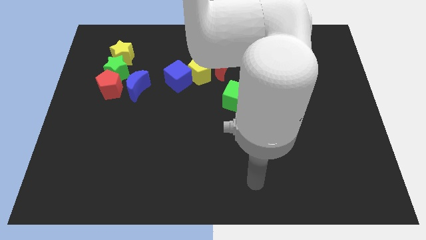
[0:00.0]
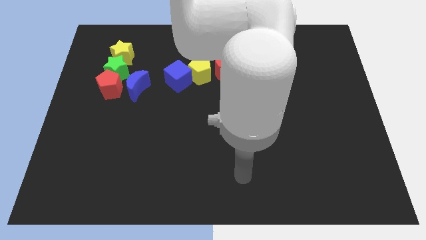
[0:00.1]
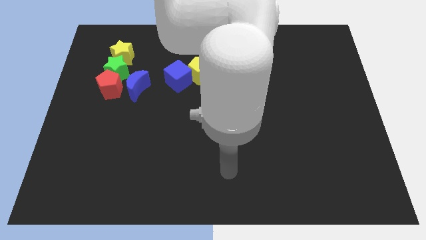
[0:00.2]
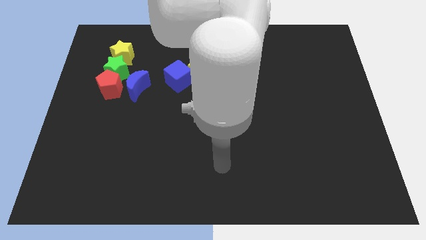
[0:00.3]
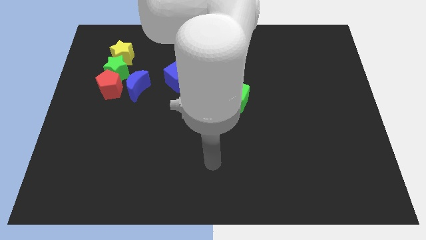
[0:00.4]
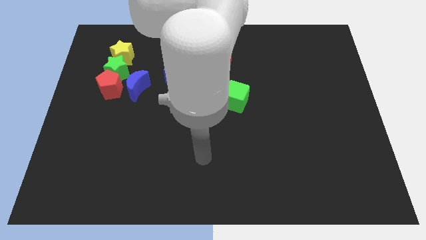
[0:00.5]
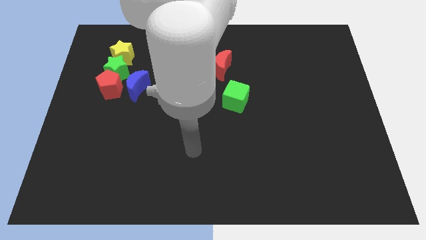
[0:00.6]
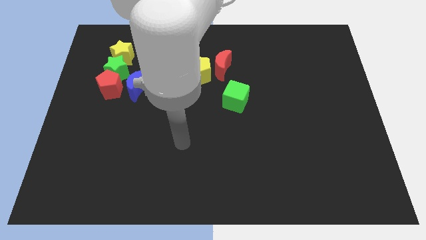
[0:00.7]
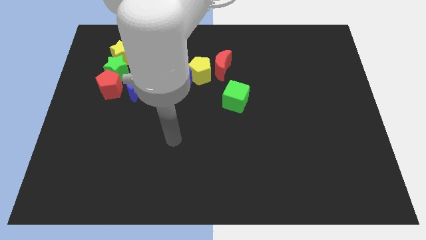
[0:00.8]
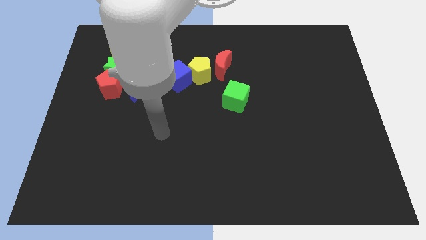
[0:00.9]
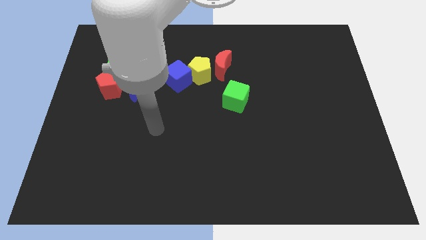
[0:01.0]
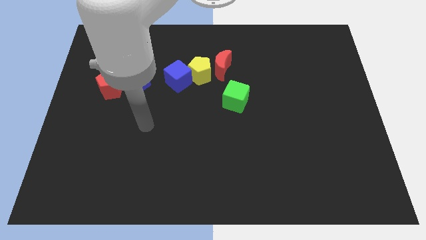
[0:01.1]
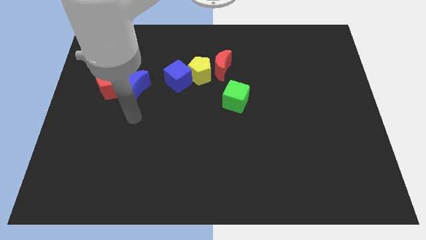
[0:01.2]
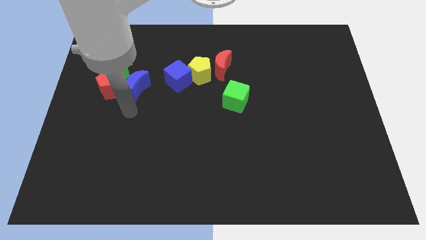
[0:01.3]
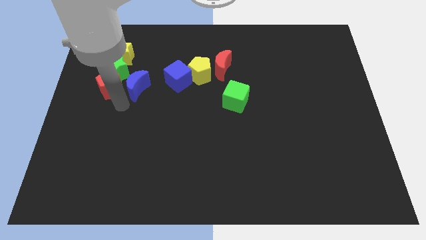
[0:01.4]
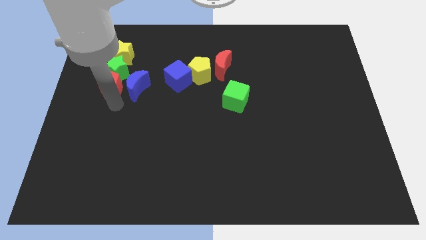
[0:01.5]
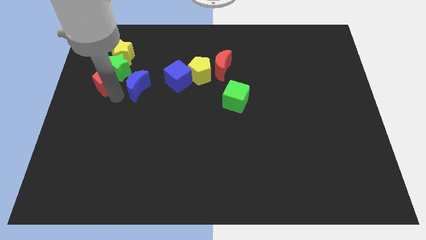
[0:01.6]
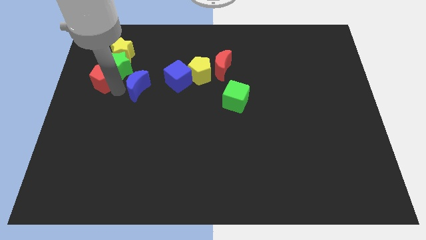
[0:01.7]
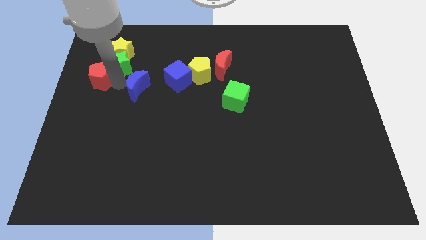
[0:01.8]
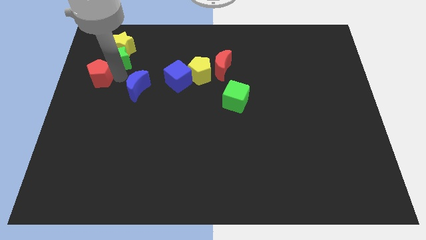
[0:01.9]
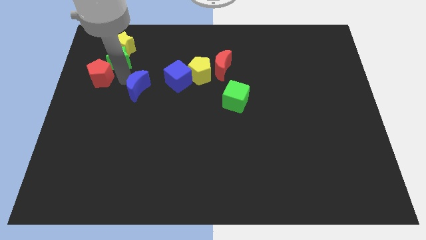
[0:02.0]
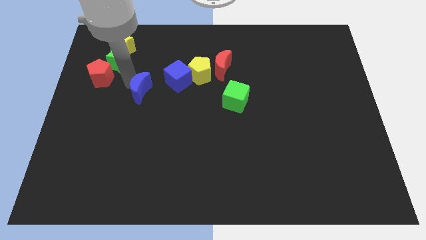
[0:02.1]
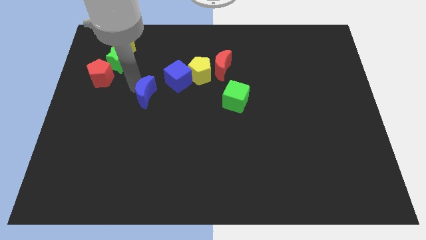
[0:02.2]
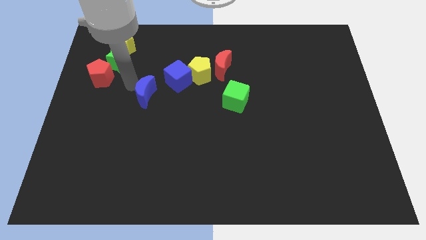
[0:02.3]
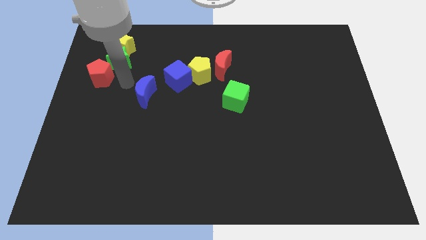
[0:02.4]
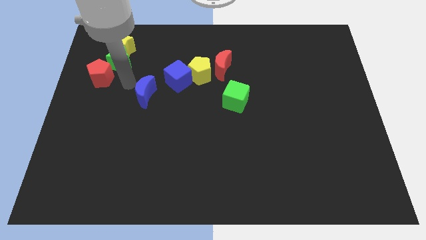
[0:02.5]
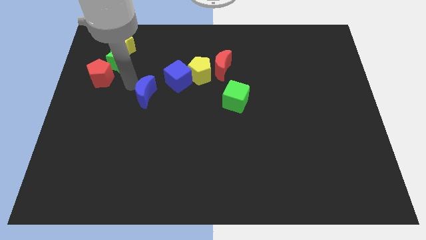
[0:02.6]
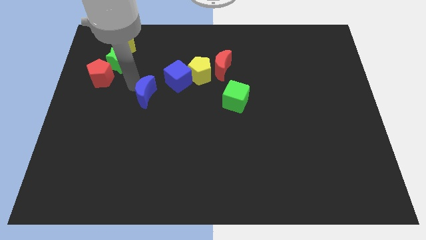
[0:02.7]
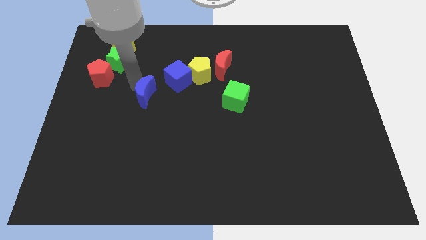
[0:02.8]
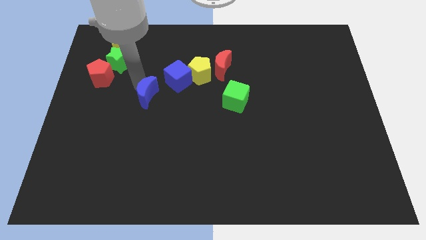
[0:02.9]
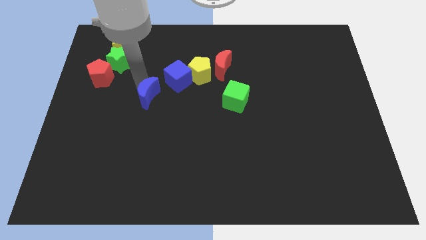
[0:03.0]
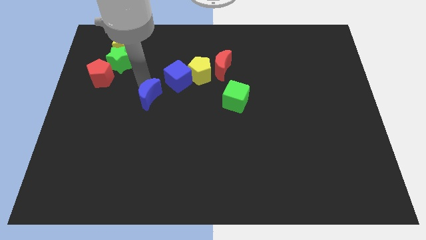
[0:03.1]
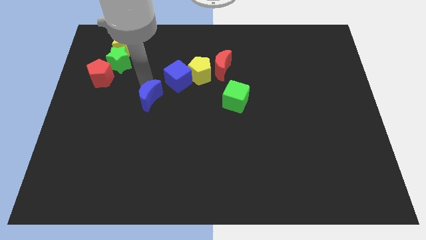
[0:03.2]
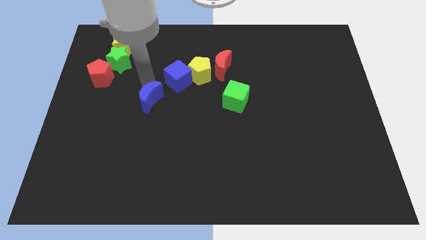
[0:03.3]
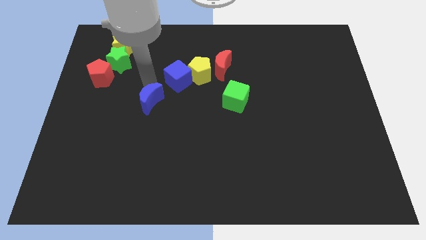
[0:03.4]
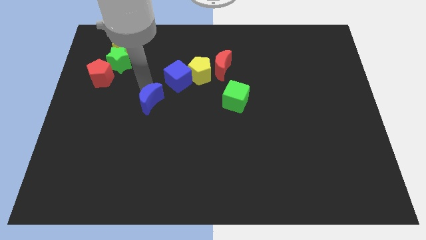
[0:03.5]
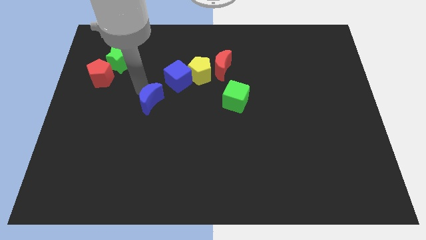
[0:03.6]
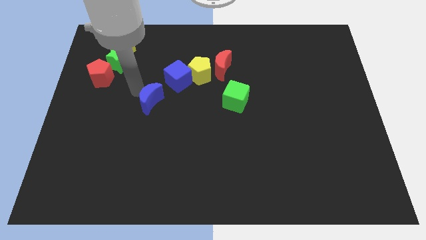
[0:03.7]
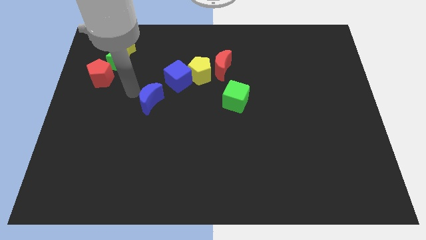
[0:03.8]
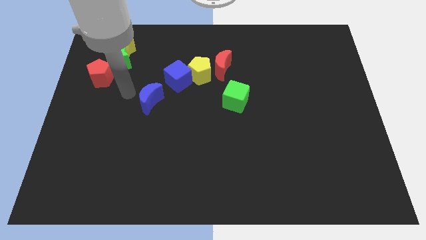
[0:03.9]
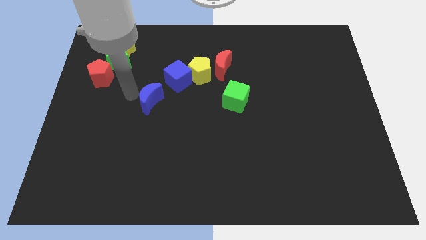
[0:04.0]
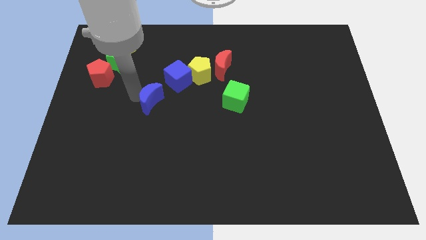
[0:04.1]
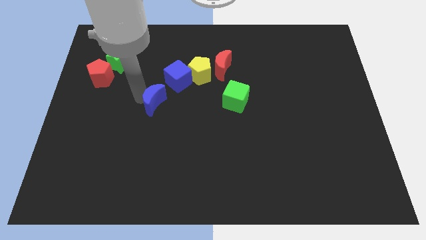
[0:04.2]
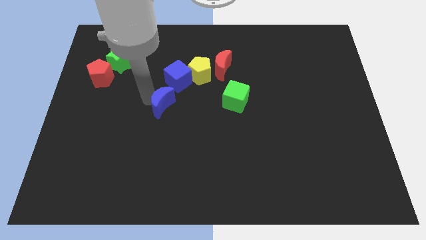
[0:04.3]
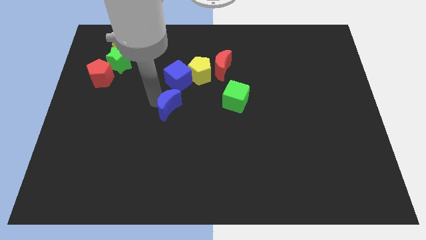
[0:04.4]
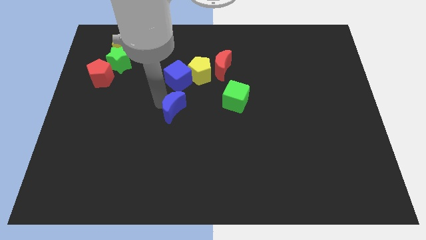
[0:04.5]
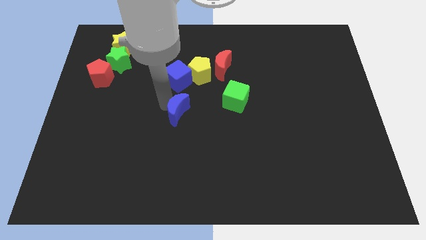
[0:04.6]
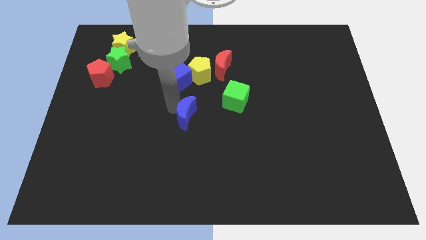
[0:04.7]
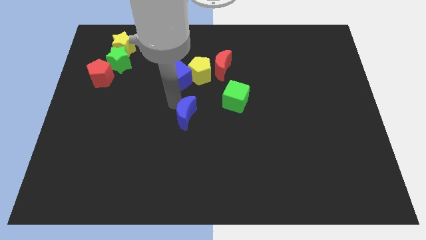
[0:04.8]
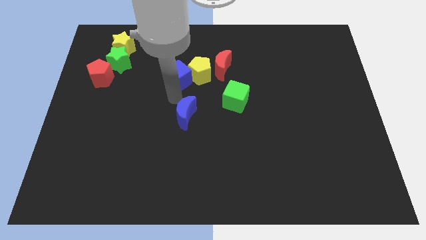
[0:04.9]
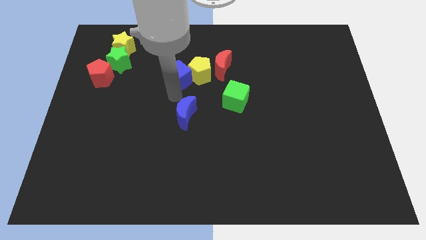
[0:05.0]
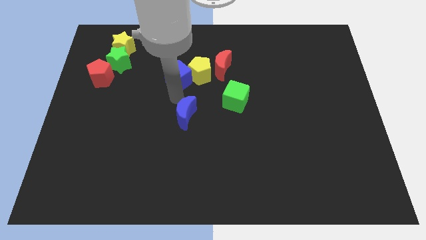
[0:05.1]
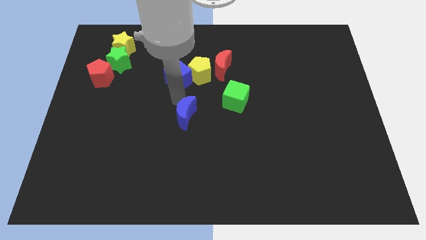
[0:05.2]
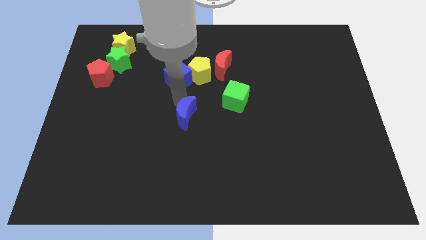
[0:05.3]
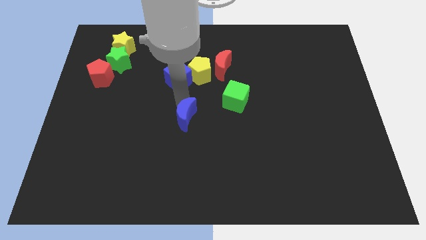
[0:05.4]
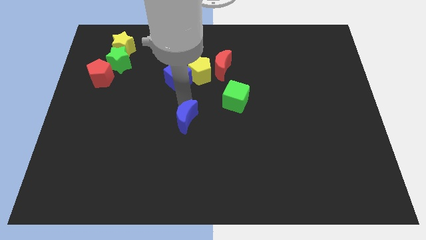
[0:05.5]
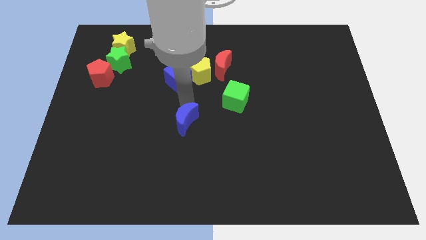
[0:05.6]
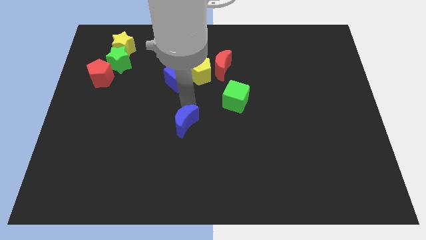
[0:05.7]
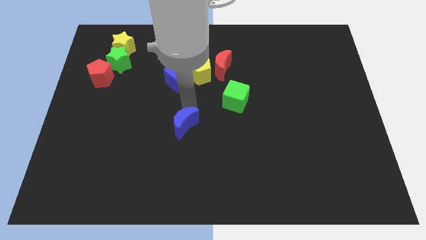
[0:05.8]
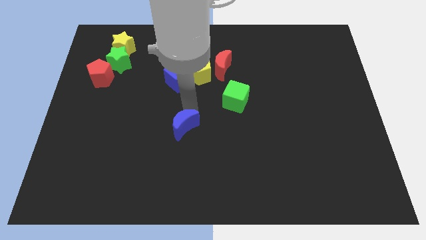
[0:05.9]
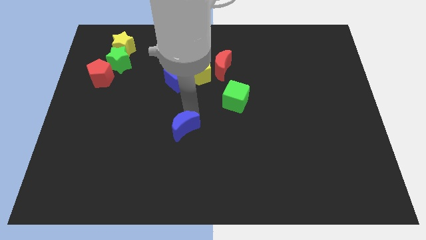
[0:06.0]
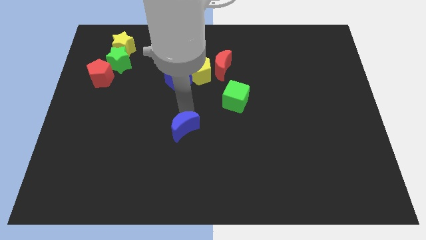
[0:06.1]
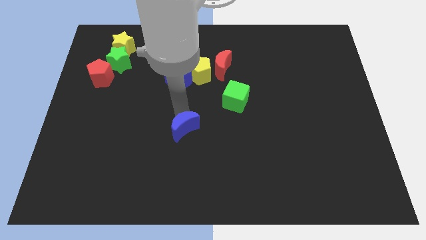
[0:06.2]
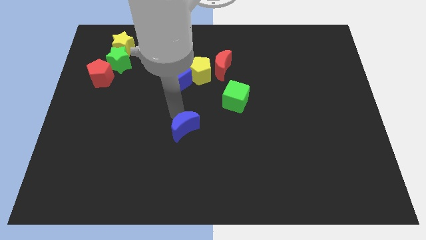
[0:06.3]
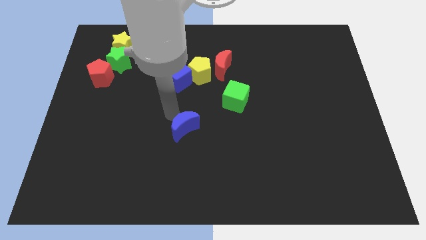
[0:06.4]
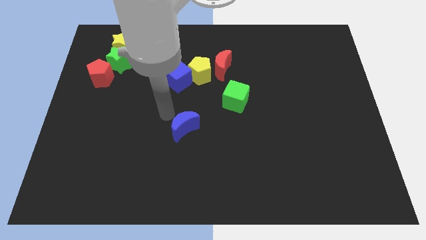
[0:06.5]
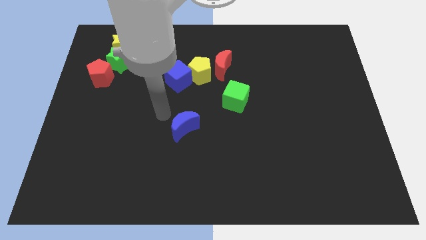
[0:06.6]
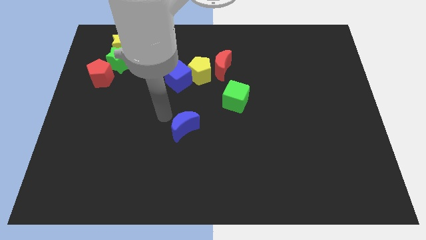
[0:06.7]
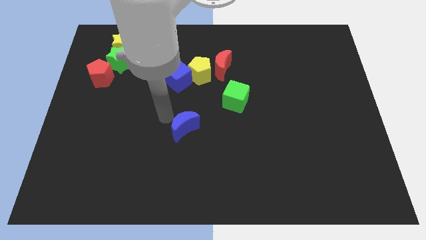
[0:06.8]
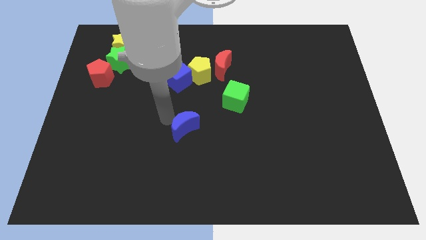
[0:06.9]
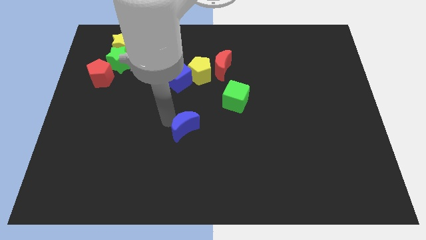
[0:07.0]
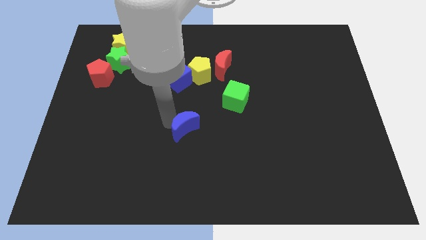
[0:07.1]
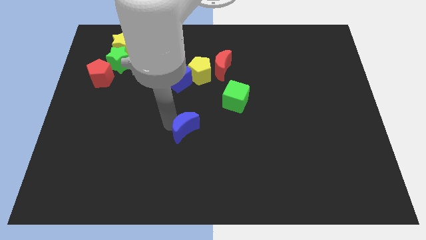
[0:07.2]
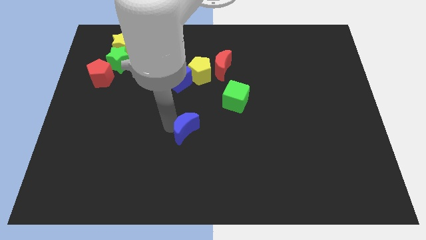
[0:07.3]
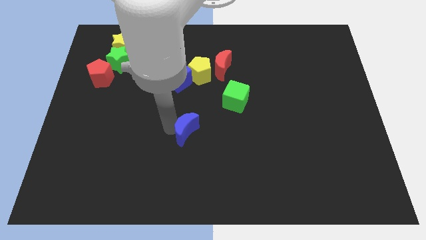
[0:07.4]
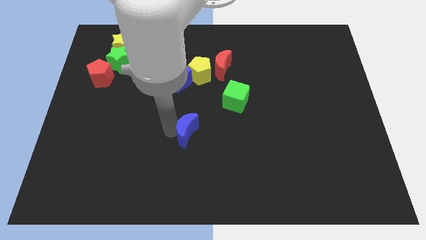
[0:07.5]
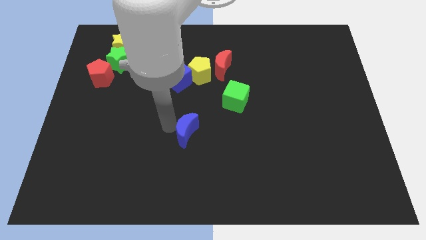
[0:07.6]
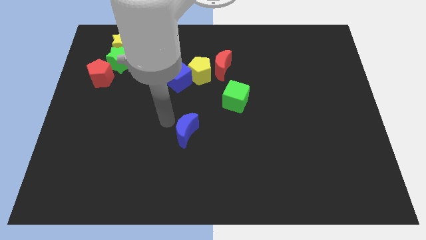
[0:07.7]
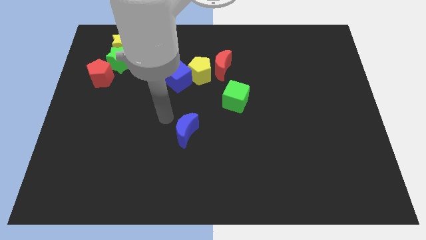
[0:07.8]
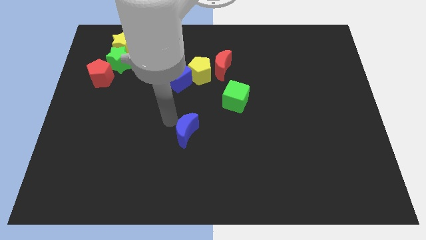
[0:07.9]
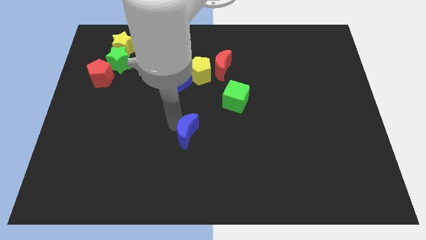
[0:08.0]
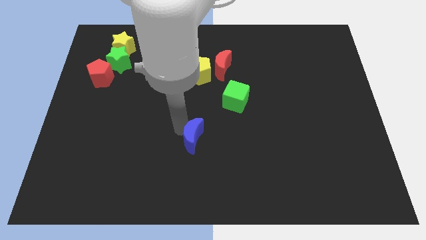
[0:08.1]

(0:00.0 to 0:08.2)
push the blue moon downwards and then right

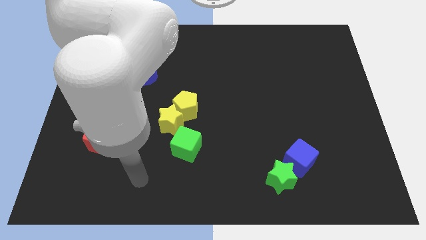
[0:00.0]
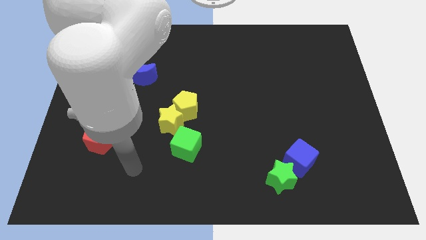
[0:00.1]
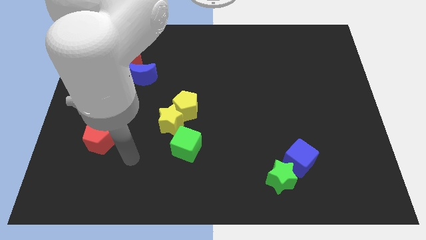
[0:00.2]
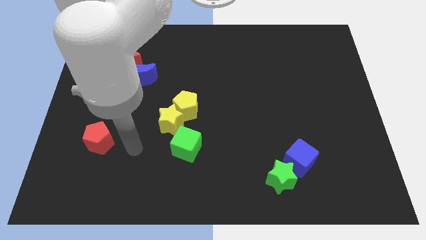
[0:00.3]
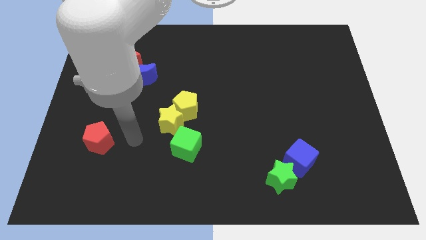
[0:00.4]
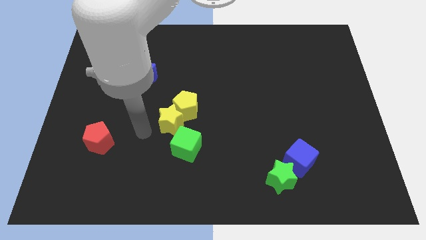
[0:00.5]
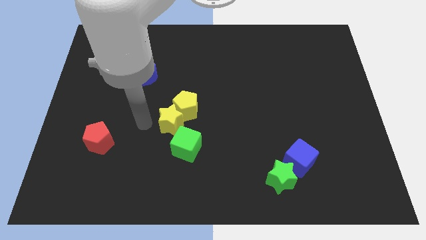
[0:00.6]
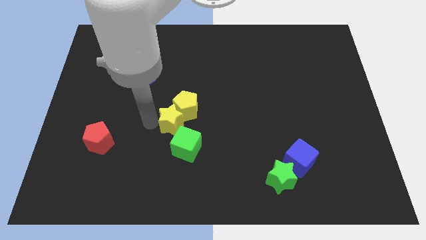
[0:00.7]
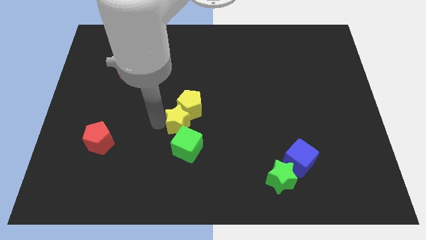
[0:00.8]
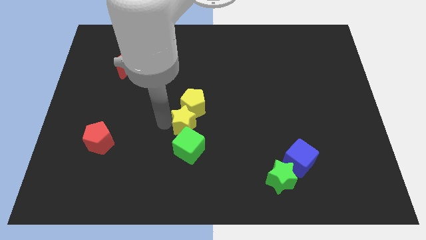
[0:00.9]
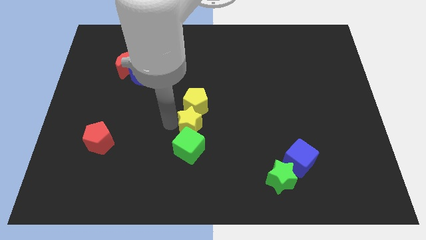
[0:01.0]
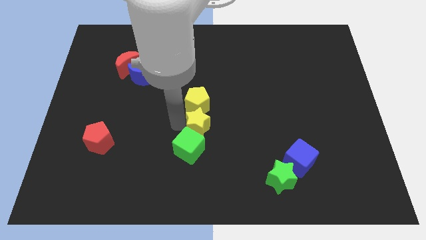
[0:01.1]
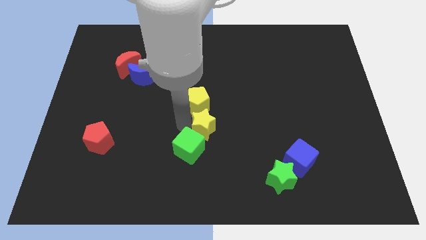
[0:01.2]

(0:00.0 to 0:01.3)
slightly push the yellow star to the right
